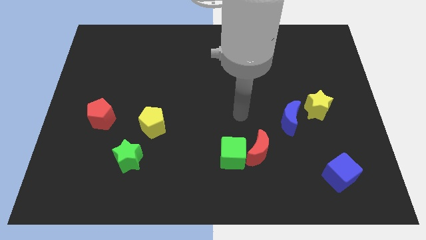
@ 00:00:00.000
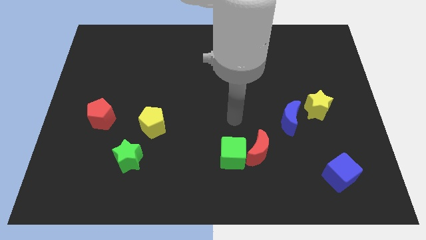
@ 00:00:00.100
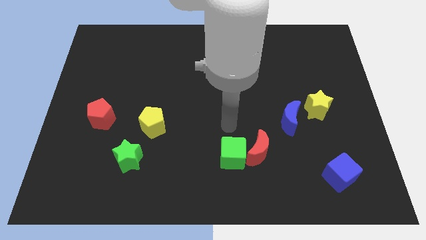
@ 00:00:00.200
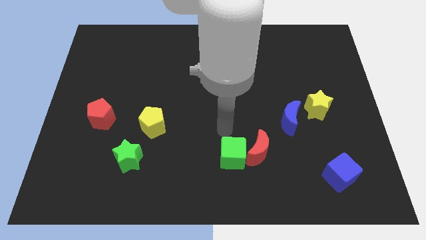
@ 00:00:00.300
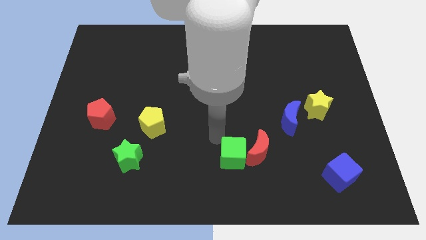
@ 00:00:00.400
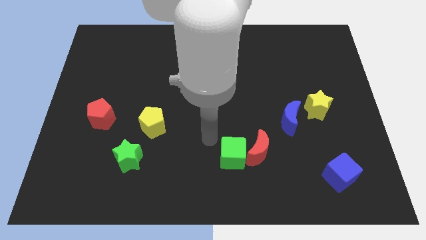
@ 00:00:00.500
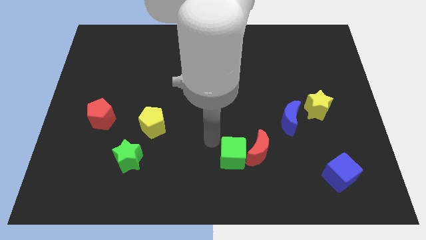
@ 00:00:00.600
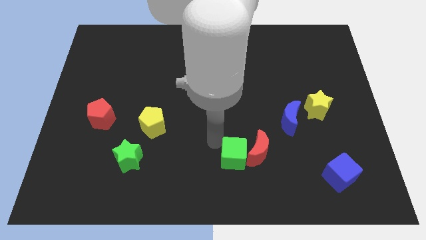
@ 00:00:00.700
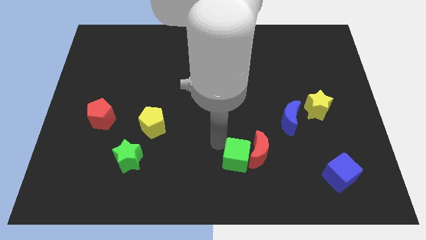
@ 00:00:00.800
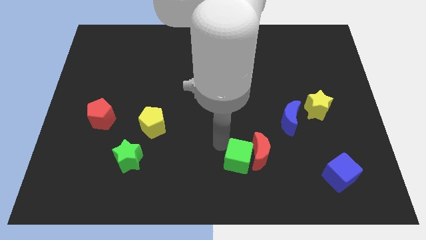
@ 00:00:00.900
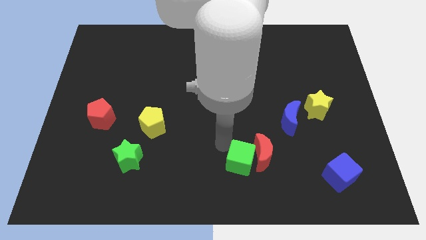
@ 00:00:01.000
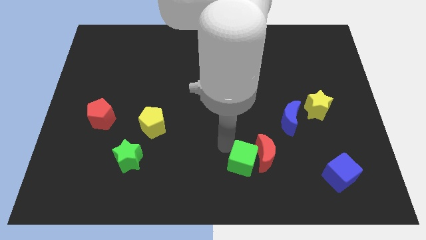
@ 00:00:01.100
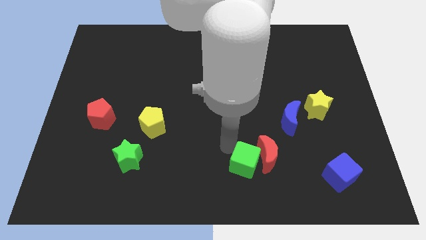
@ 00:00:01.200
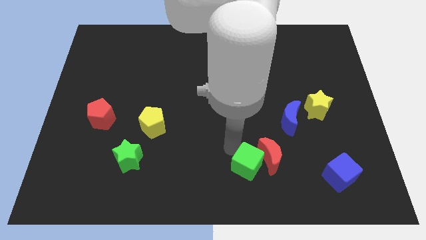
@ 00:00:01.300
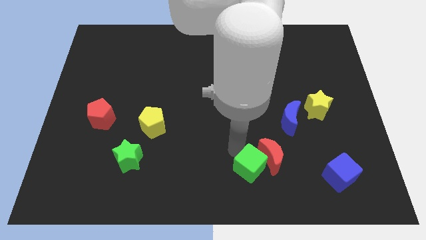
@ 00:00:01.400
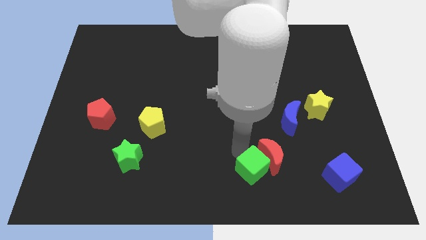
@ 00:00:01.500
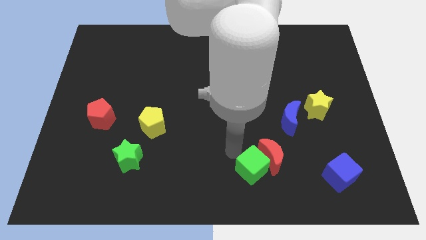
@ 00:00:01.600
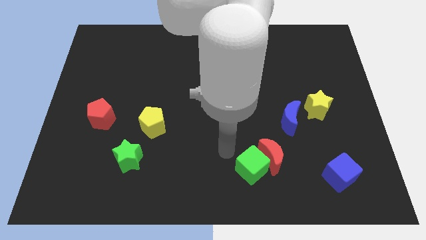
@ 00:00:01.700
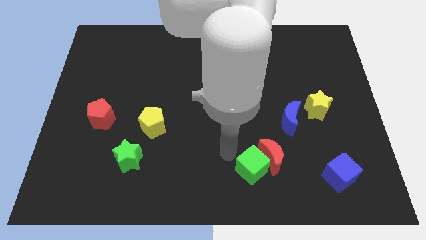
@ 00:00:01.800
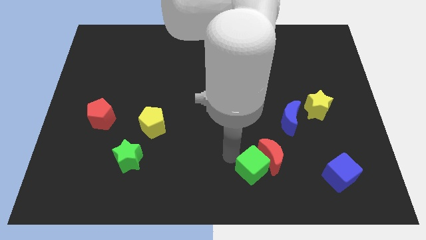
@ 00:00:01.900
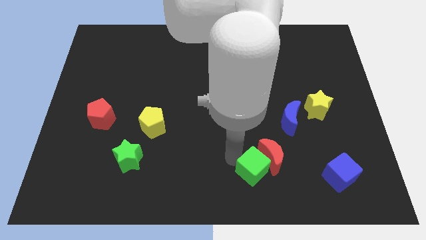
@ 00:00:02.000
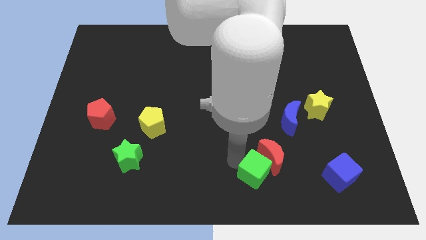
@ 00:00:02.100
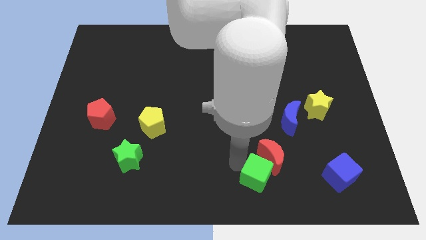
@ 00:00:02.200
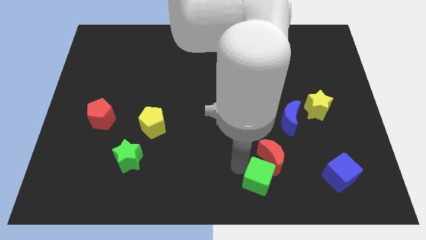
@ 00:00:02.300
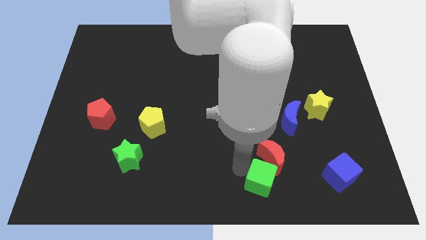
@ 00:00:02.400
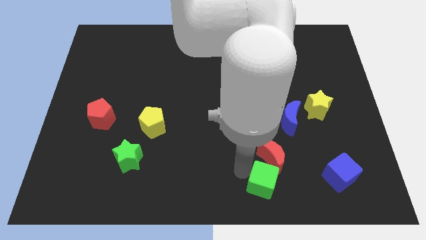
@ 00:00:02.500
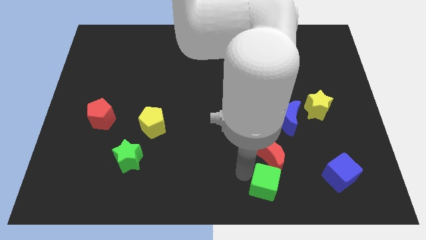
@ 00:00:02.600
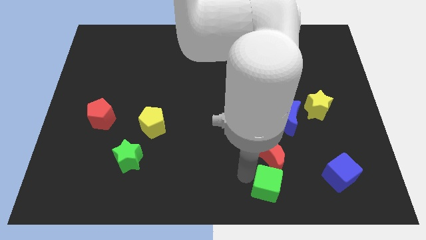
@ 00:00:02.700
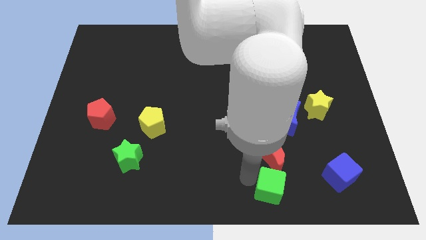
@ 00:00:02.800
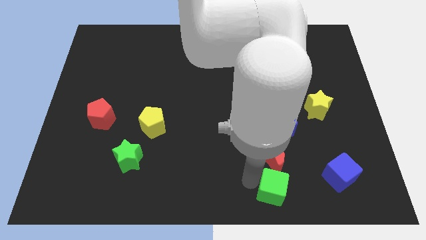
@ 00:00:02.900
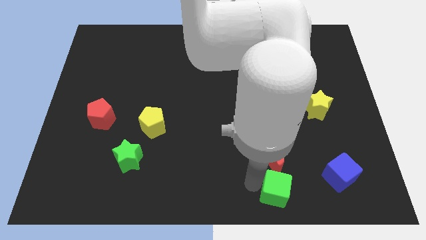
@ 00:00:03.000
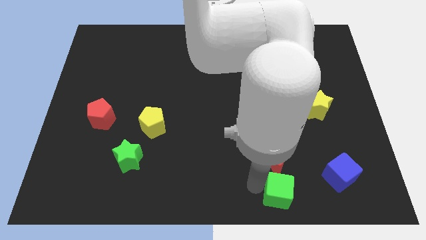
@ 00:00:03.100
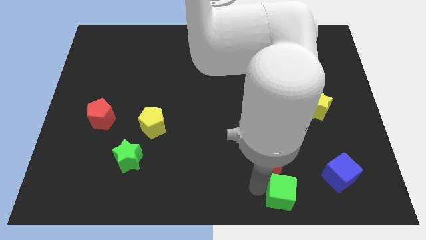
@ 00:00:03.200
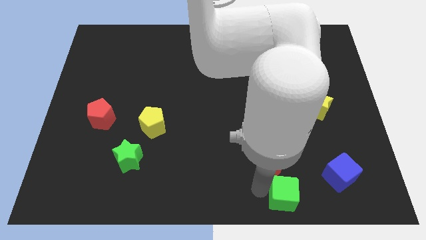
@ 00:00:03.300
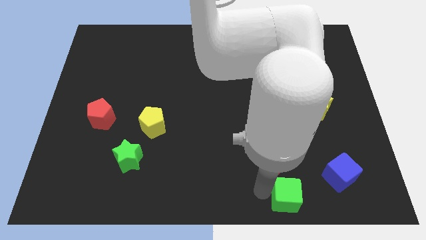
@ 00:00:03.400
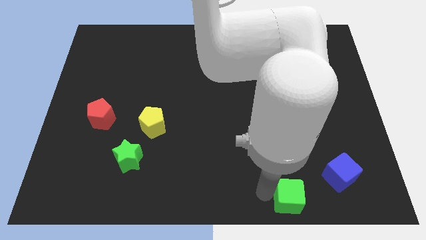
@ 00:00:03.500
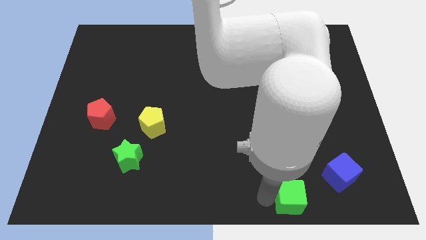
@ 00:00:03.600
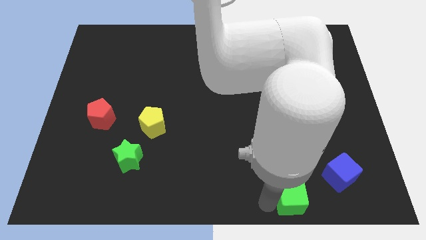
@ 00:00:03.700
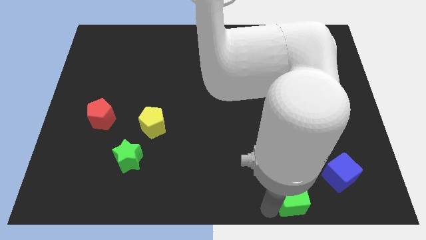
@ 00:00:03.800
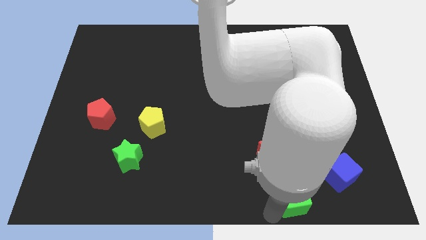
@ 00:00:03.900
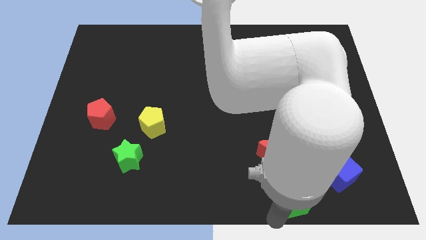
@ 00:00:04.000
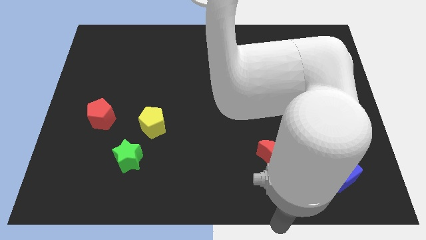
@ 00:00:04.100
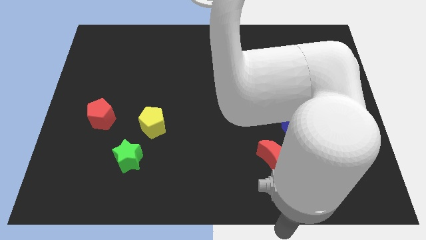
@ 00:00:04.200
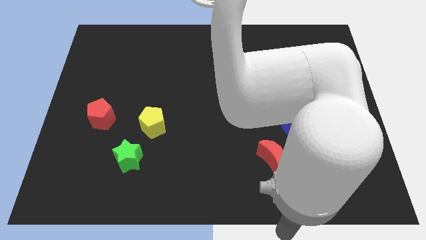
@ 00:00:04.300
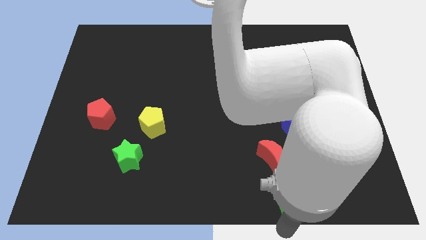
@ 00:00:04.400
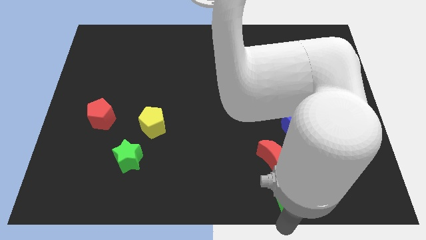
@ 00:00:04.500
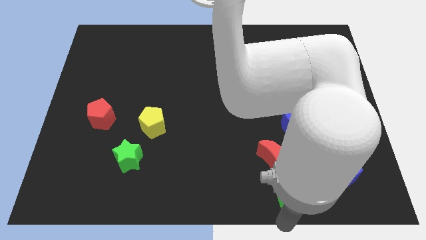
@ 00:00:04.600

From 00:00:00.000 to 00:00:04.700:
slide the green cube to the right a little bit

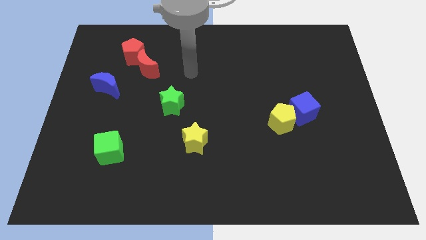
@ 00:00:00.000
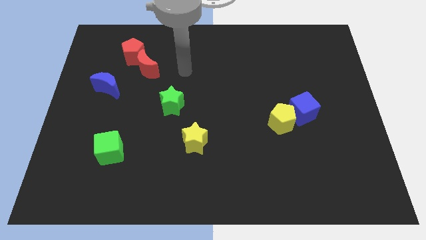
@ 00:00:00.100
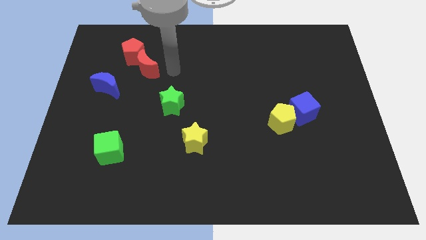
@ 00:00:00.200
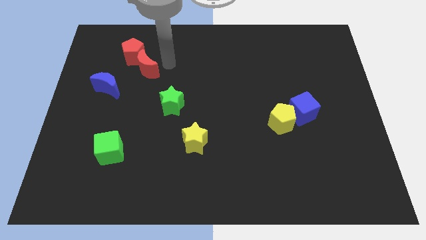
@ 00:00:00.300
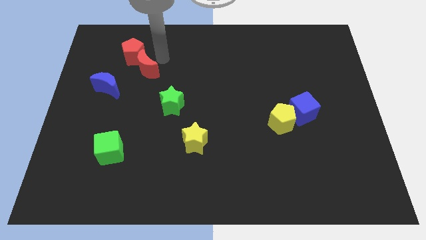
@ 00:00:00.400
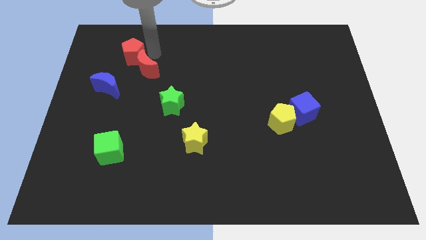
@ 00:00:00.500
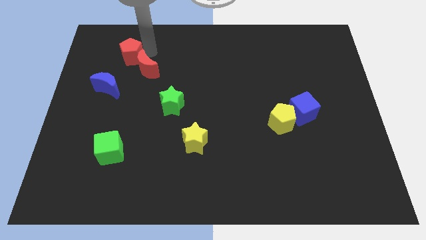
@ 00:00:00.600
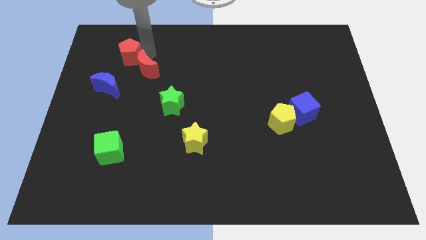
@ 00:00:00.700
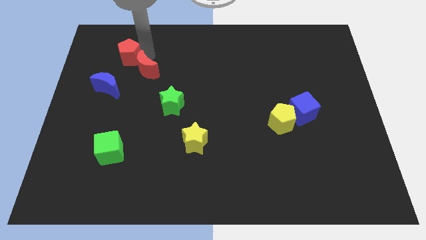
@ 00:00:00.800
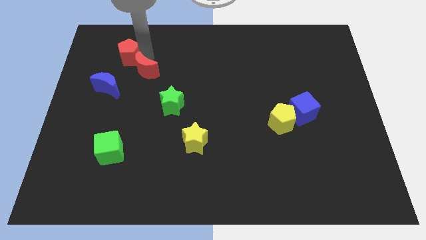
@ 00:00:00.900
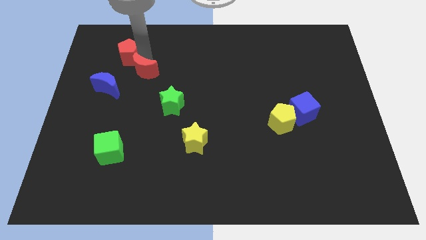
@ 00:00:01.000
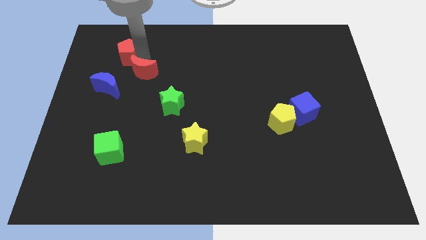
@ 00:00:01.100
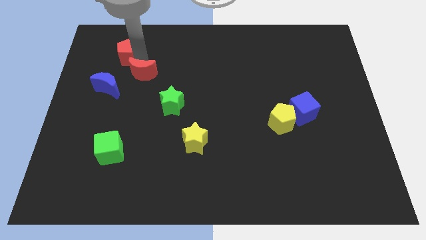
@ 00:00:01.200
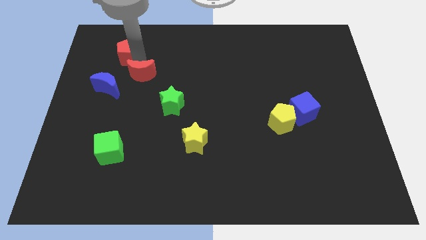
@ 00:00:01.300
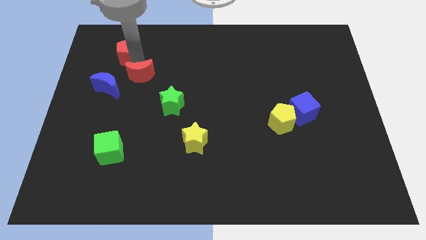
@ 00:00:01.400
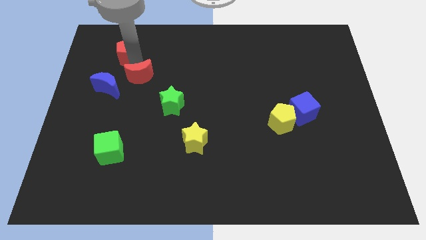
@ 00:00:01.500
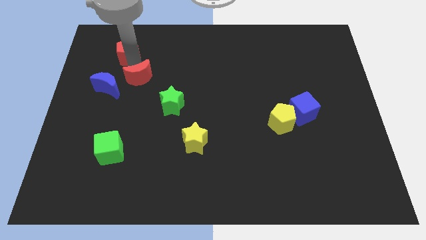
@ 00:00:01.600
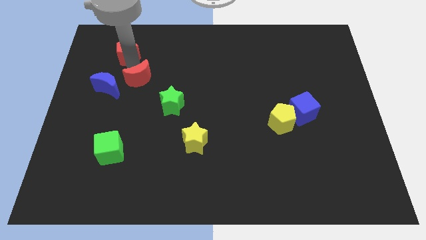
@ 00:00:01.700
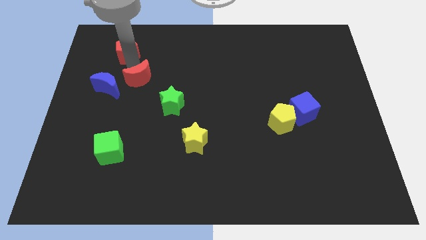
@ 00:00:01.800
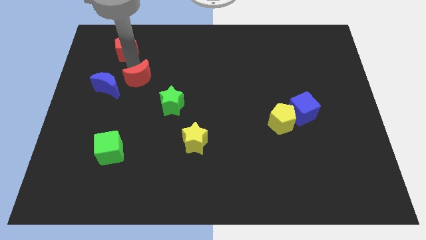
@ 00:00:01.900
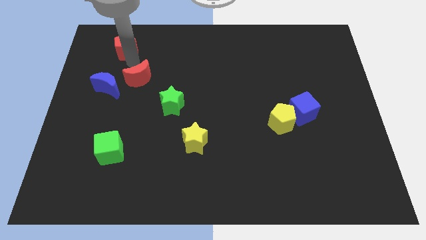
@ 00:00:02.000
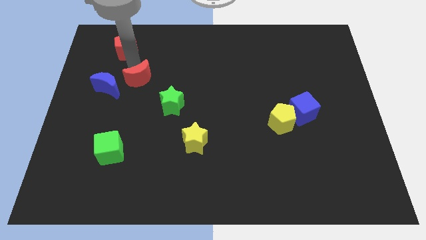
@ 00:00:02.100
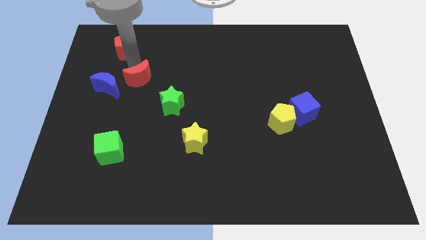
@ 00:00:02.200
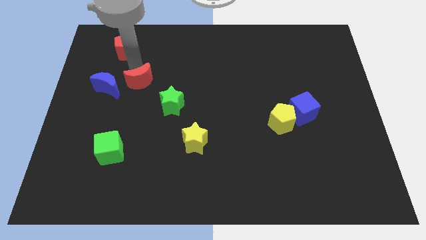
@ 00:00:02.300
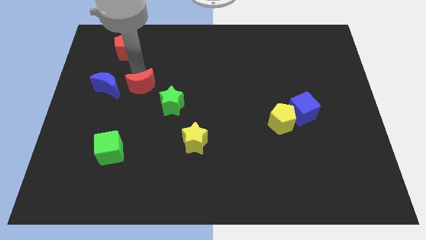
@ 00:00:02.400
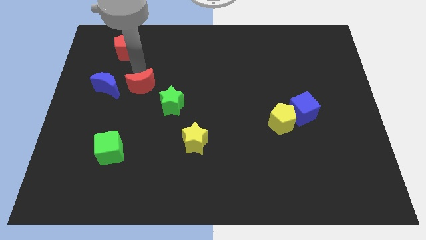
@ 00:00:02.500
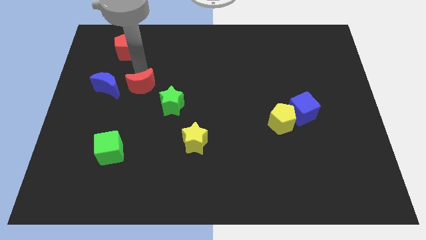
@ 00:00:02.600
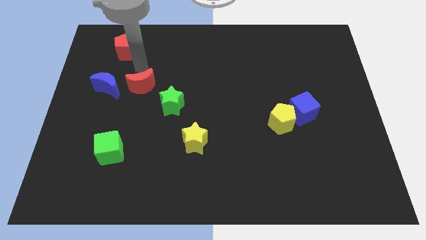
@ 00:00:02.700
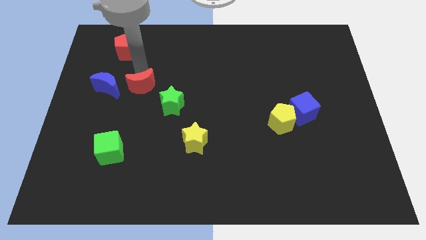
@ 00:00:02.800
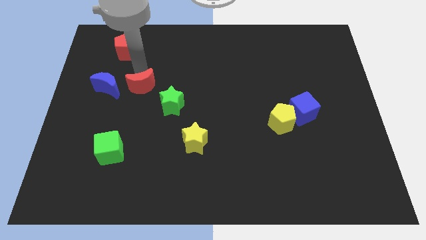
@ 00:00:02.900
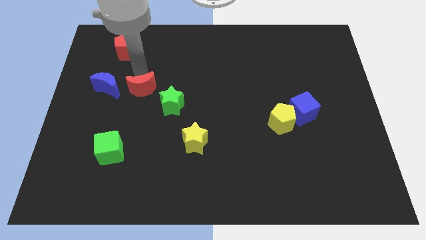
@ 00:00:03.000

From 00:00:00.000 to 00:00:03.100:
slightly push the red moon downwards

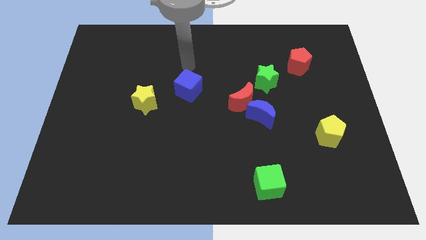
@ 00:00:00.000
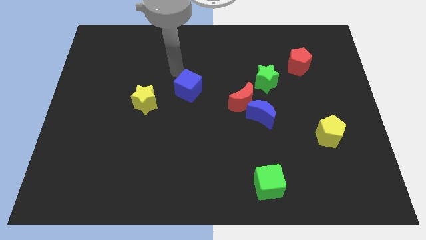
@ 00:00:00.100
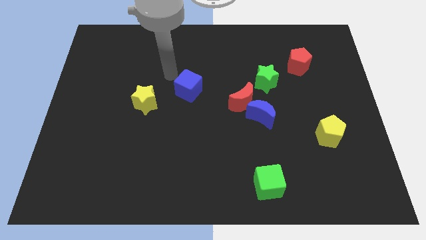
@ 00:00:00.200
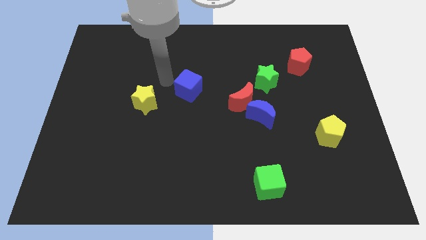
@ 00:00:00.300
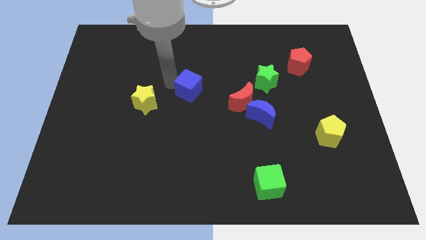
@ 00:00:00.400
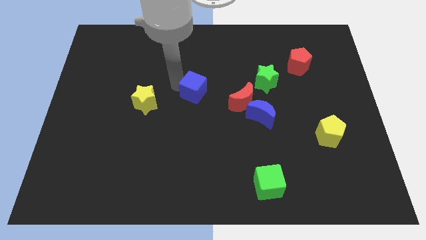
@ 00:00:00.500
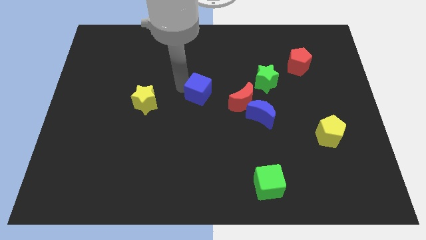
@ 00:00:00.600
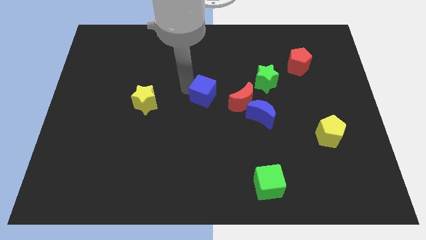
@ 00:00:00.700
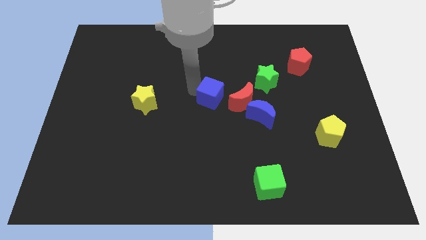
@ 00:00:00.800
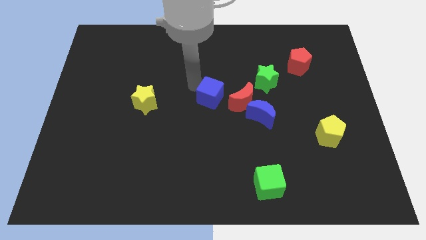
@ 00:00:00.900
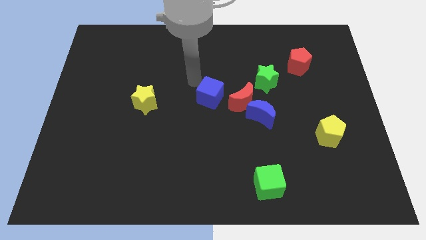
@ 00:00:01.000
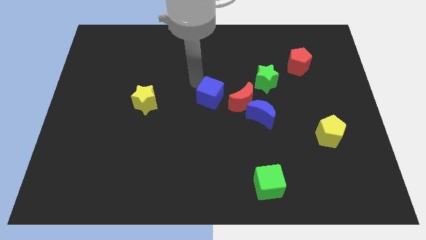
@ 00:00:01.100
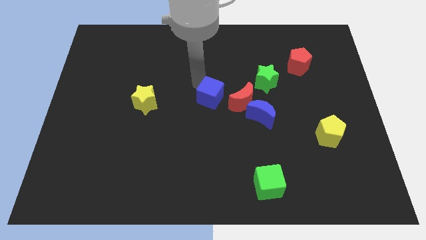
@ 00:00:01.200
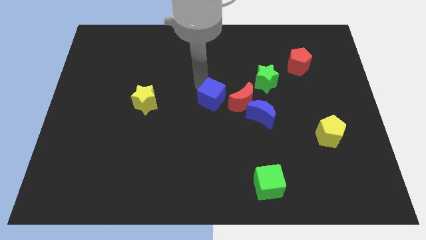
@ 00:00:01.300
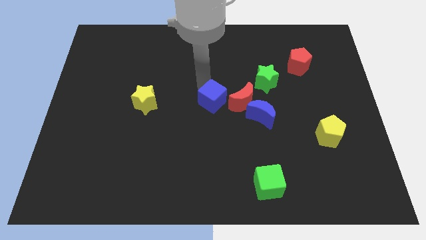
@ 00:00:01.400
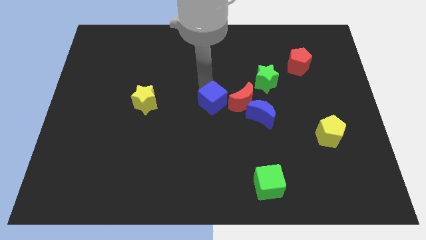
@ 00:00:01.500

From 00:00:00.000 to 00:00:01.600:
move the blue cube somewhat down and to the right
